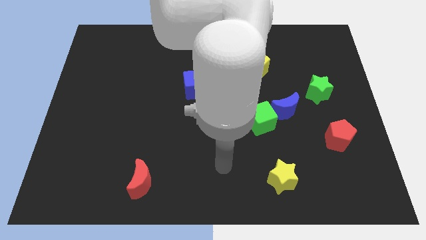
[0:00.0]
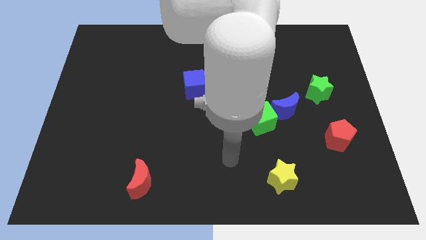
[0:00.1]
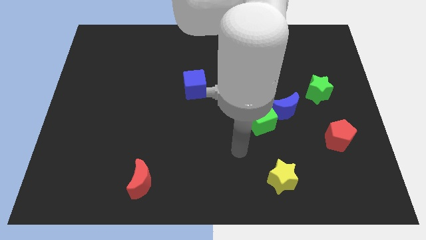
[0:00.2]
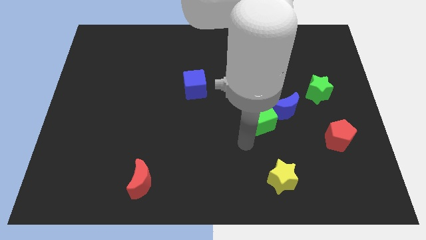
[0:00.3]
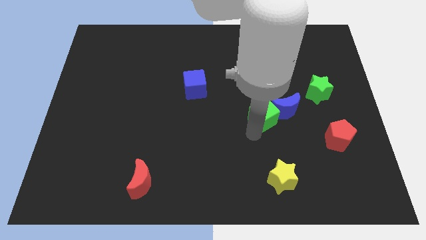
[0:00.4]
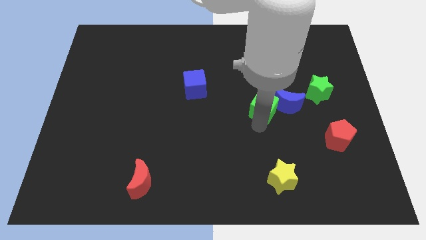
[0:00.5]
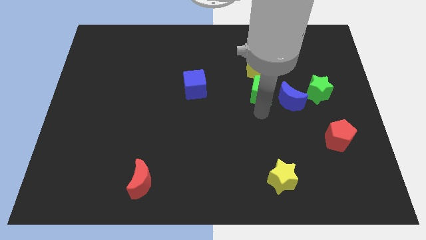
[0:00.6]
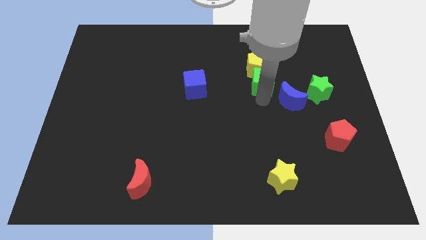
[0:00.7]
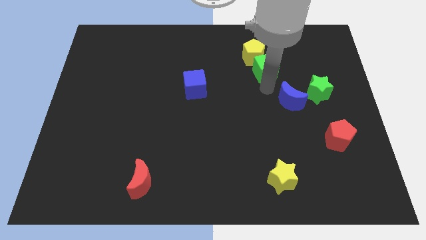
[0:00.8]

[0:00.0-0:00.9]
pull the blue moon apart from the green cube

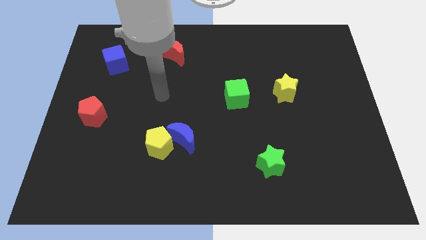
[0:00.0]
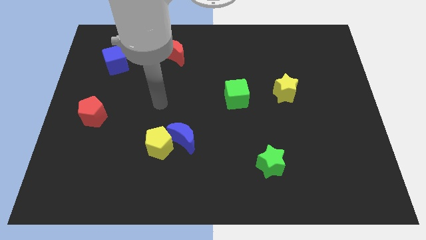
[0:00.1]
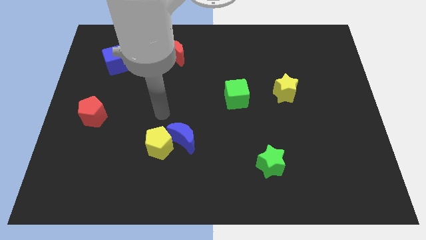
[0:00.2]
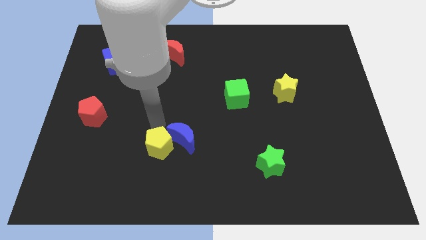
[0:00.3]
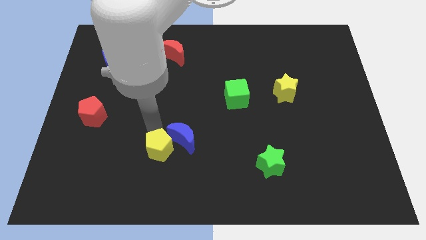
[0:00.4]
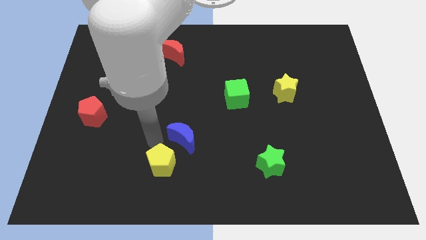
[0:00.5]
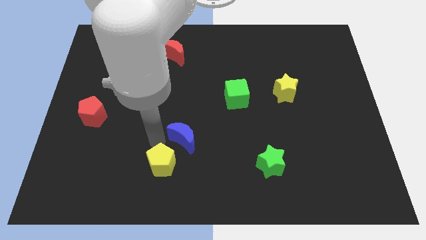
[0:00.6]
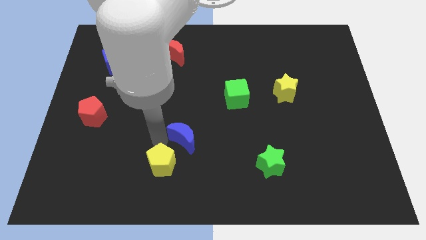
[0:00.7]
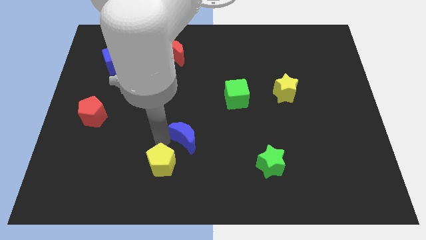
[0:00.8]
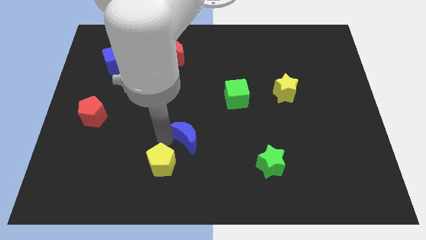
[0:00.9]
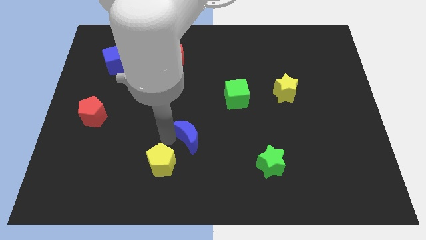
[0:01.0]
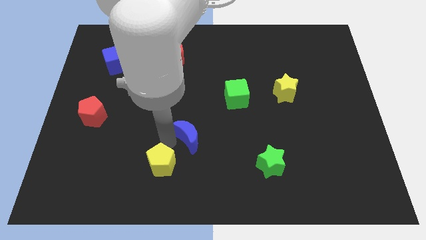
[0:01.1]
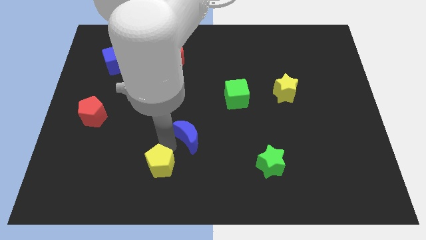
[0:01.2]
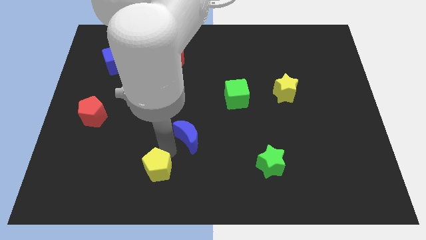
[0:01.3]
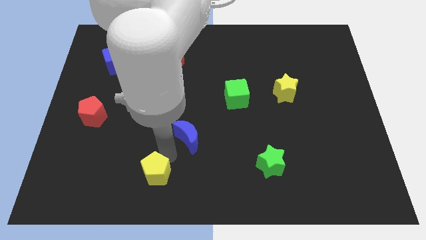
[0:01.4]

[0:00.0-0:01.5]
pull the blue moon apart from the yellow pentagon

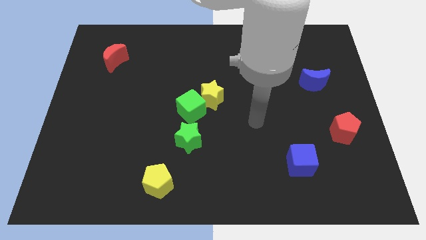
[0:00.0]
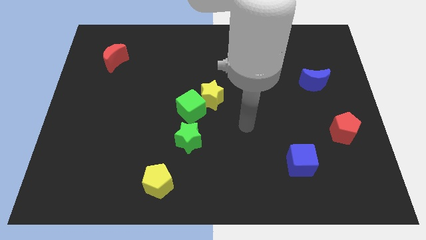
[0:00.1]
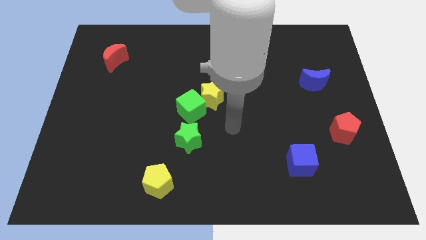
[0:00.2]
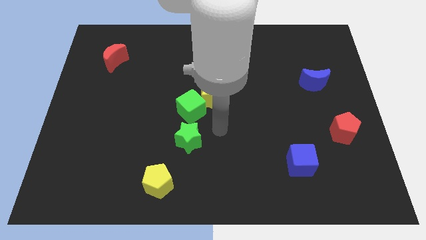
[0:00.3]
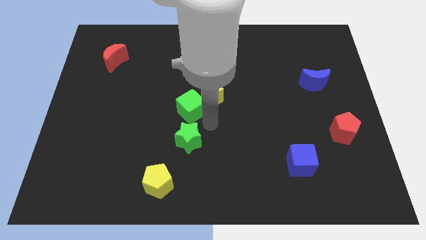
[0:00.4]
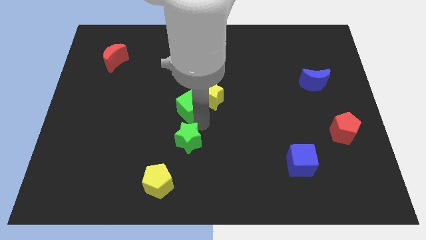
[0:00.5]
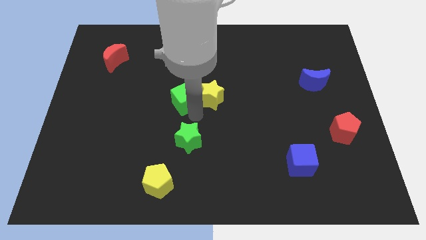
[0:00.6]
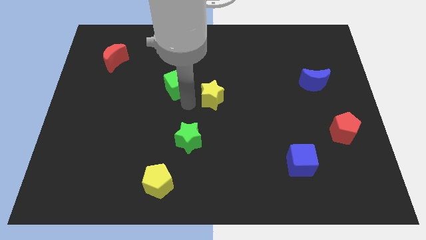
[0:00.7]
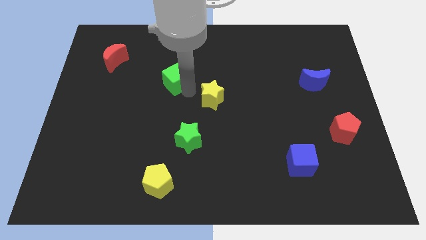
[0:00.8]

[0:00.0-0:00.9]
separate the yellow star from the green cube

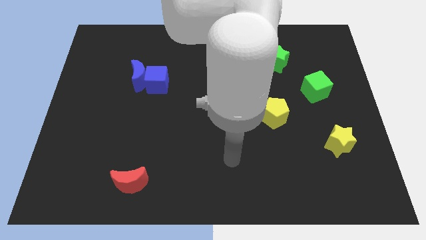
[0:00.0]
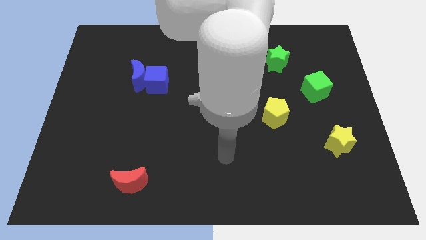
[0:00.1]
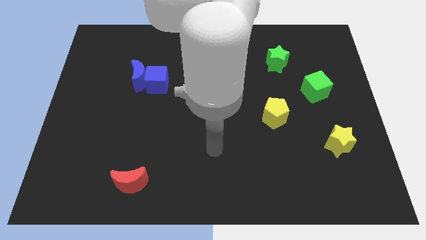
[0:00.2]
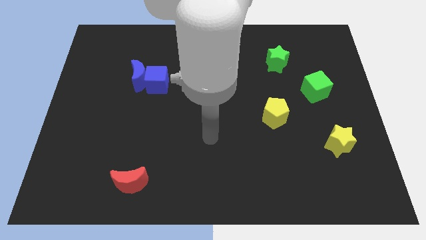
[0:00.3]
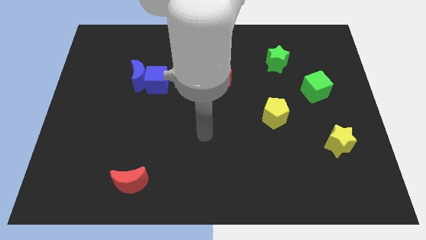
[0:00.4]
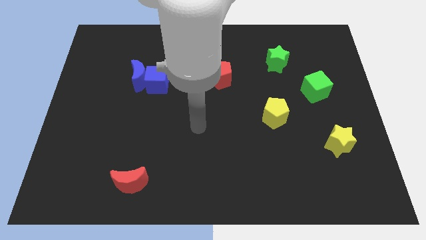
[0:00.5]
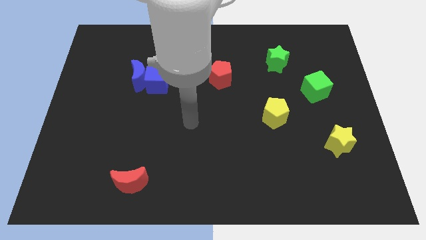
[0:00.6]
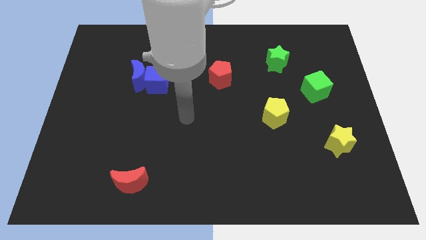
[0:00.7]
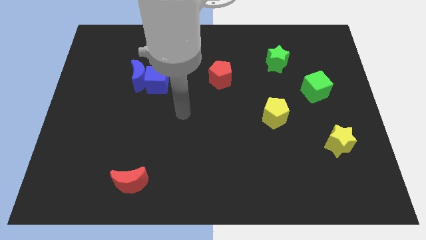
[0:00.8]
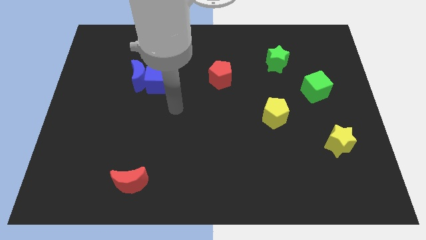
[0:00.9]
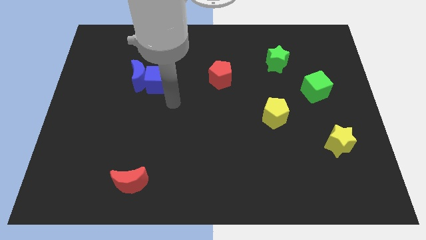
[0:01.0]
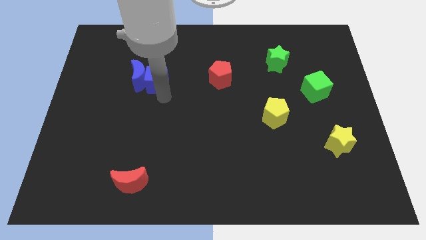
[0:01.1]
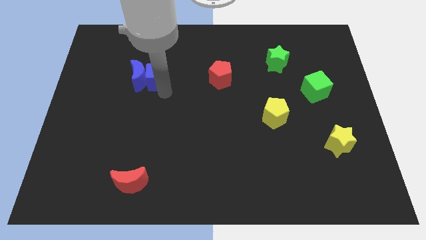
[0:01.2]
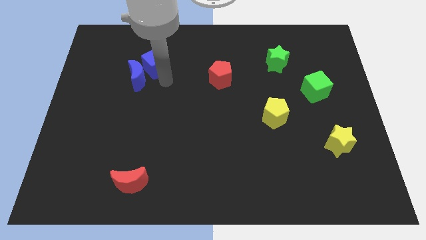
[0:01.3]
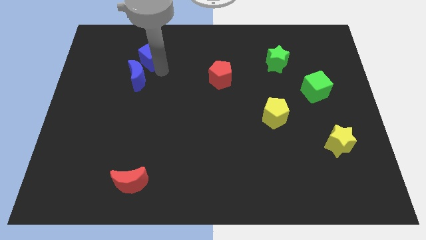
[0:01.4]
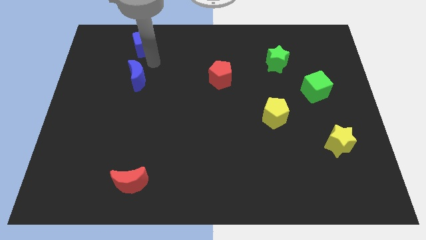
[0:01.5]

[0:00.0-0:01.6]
move the blue moon away from the blue cube

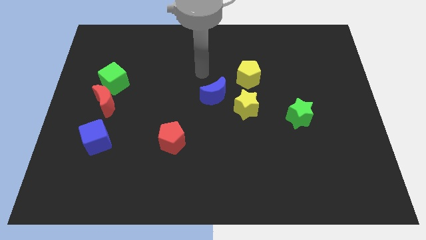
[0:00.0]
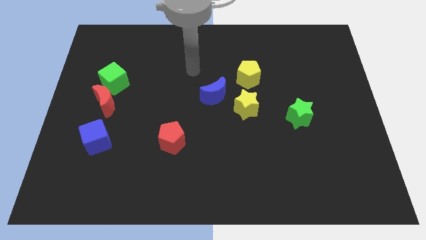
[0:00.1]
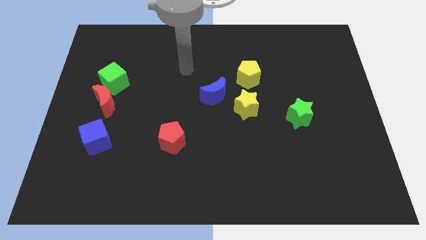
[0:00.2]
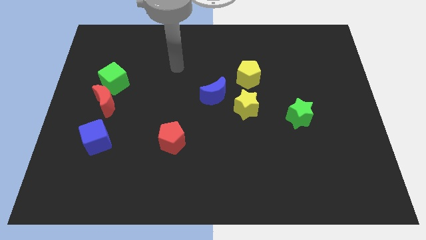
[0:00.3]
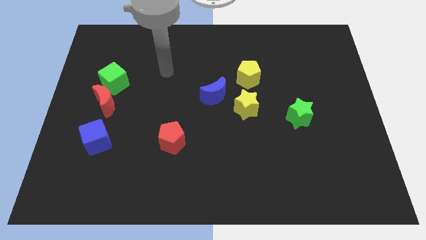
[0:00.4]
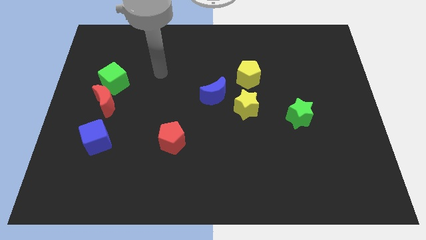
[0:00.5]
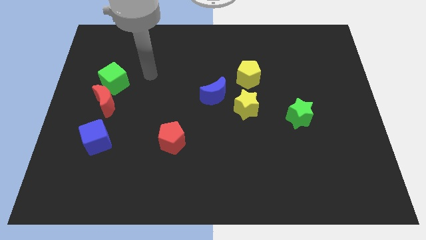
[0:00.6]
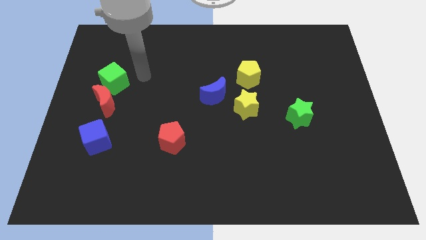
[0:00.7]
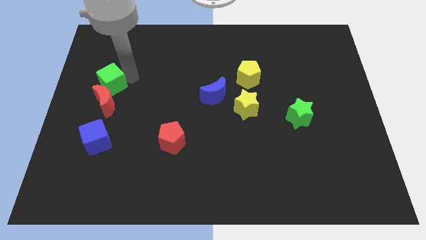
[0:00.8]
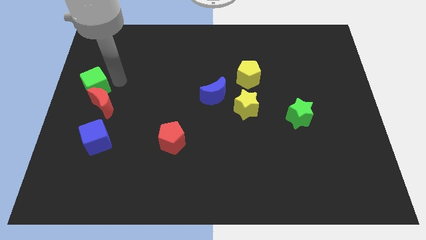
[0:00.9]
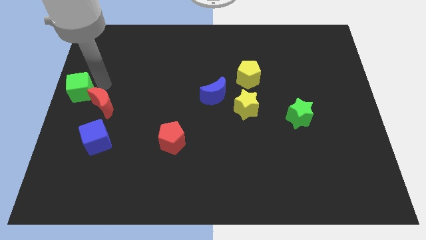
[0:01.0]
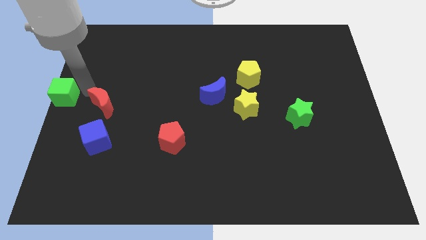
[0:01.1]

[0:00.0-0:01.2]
move the red moon away from the green cube

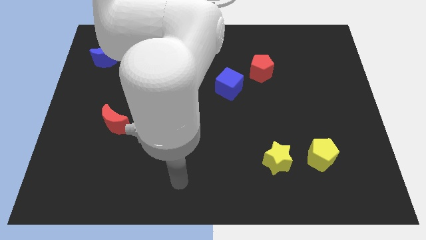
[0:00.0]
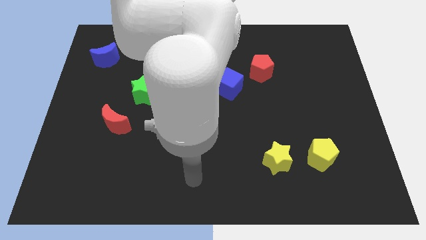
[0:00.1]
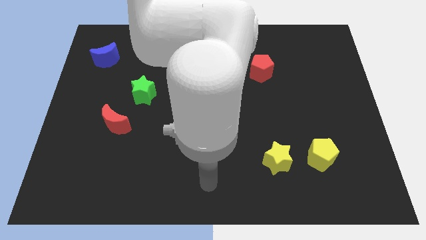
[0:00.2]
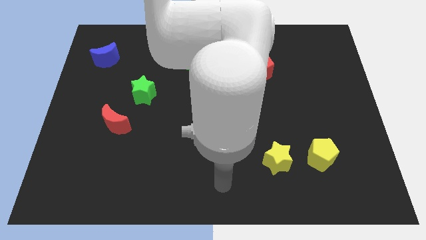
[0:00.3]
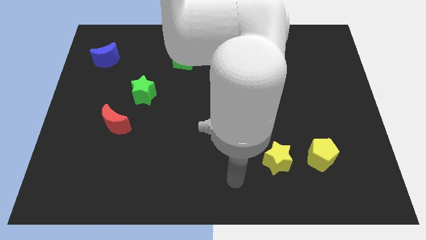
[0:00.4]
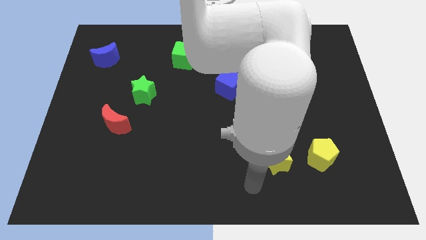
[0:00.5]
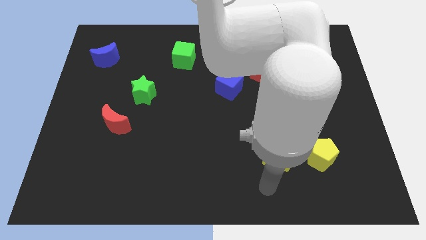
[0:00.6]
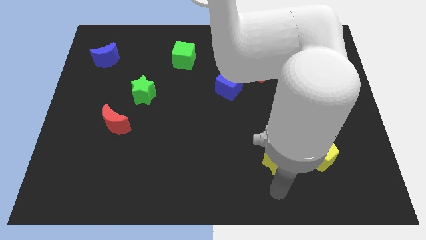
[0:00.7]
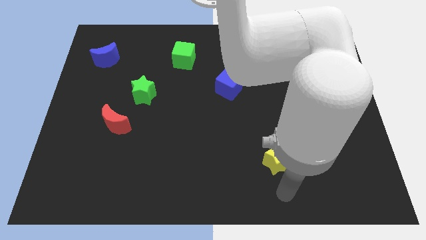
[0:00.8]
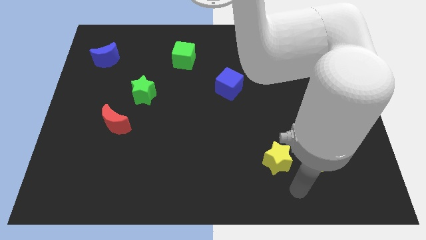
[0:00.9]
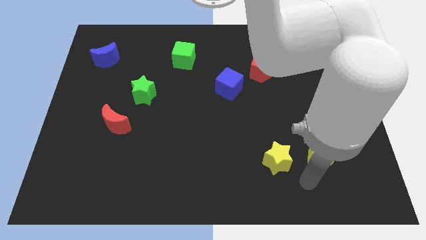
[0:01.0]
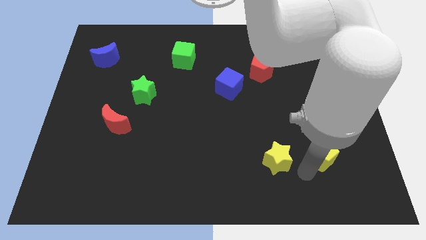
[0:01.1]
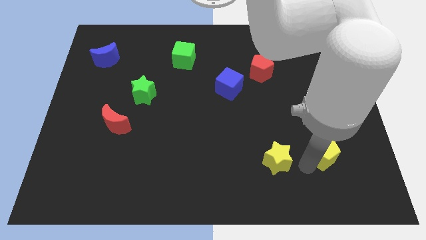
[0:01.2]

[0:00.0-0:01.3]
separate the yellow star from the yellow pentagon

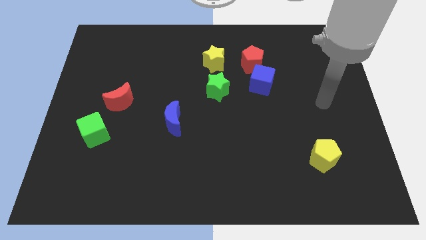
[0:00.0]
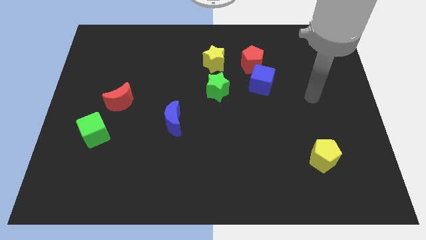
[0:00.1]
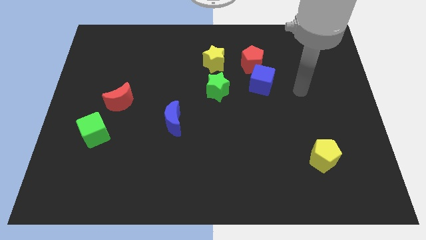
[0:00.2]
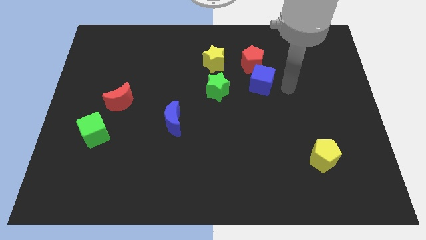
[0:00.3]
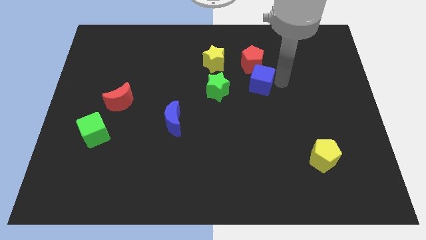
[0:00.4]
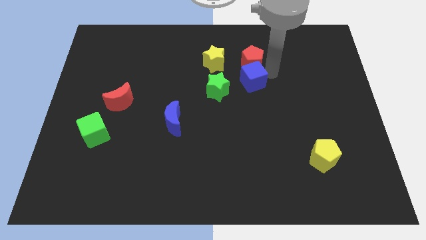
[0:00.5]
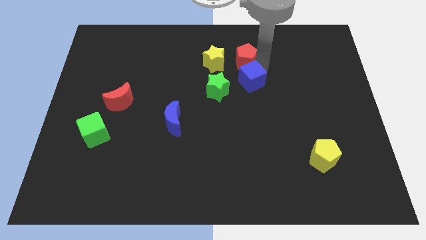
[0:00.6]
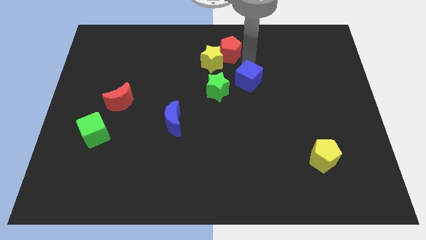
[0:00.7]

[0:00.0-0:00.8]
move the blue cube away from the red pentagon

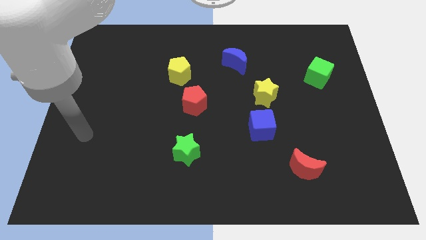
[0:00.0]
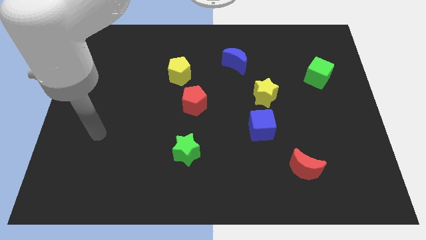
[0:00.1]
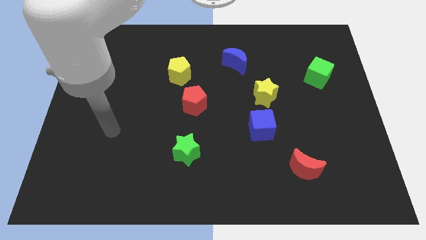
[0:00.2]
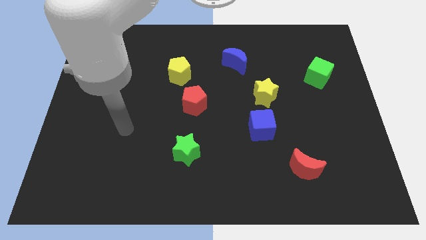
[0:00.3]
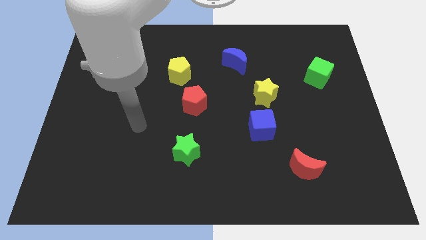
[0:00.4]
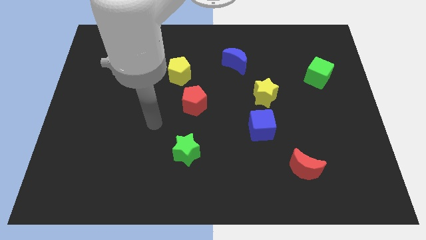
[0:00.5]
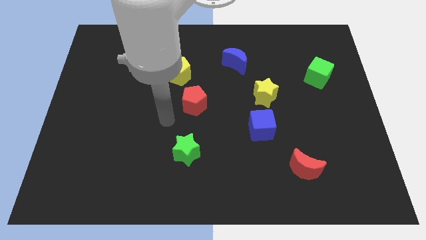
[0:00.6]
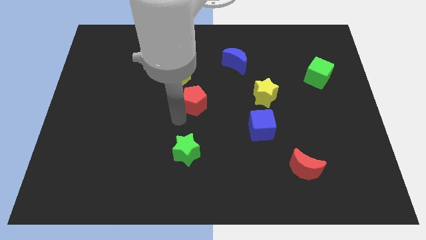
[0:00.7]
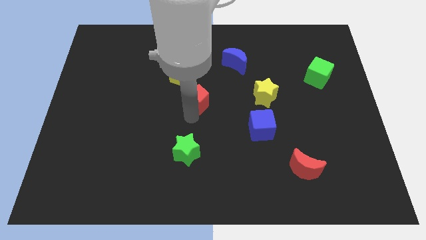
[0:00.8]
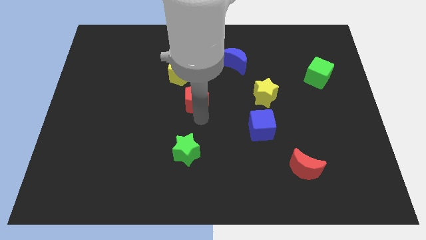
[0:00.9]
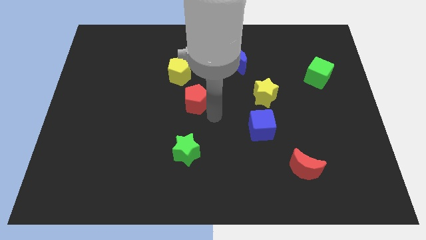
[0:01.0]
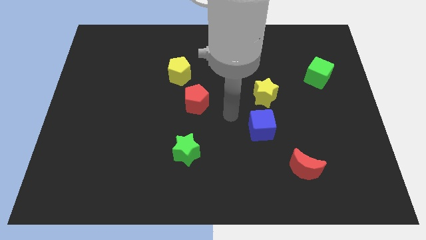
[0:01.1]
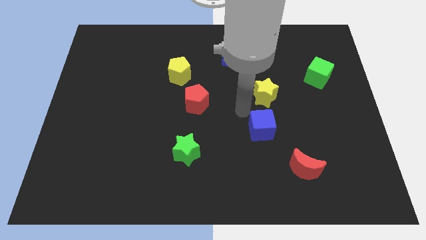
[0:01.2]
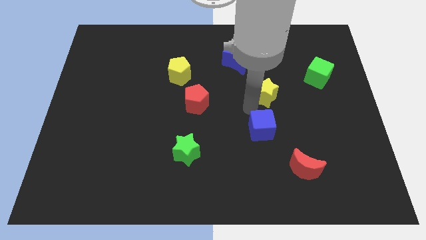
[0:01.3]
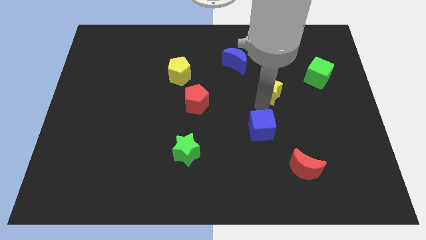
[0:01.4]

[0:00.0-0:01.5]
move the blue cube away from the yellow star
